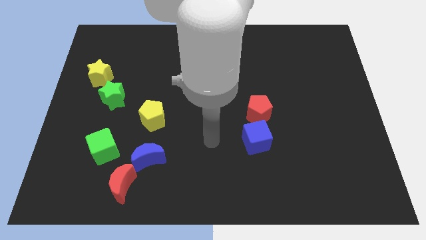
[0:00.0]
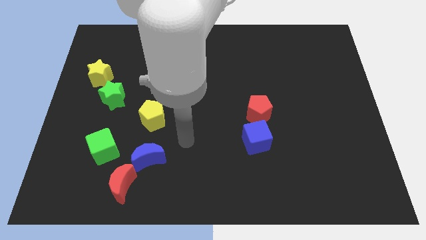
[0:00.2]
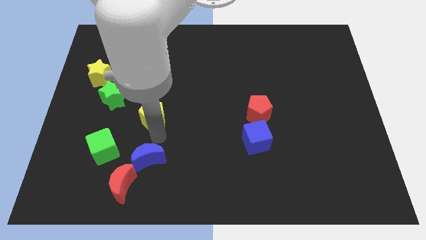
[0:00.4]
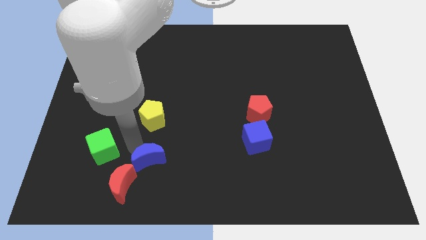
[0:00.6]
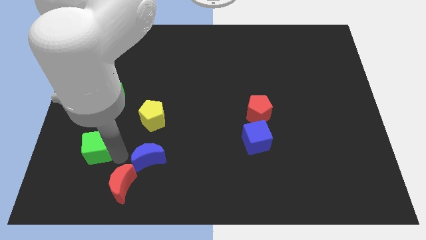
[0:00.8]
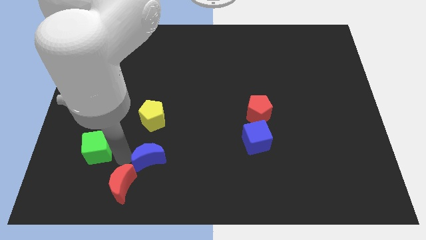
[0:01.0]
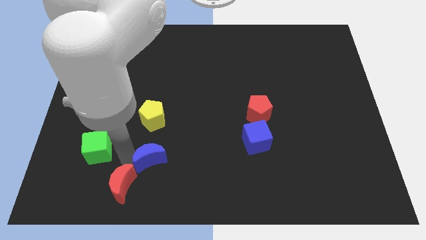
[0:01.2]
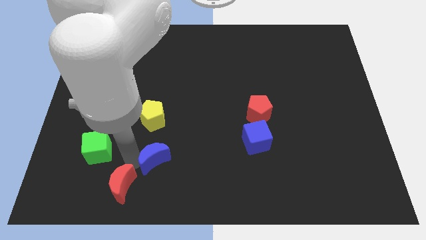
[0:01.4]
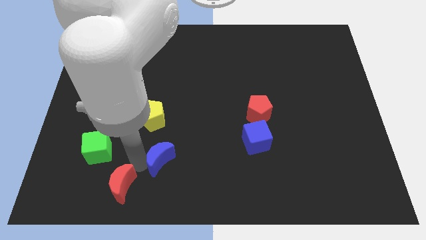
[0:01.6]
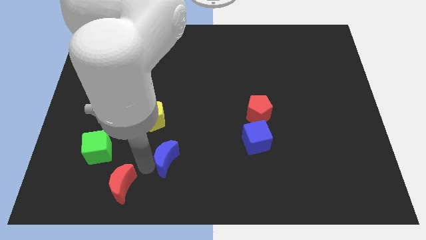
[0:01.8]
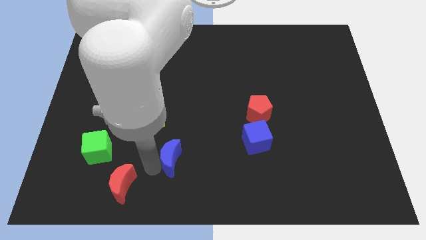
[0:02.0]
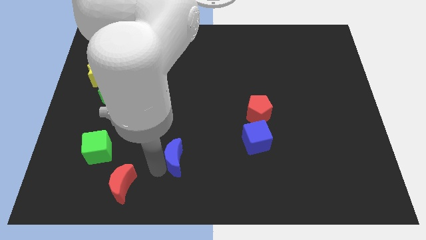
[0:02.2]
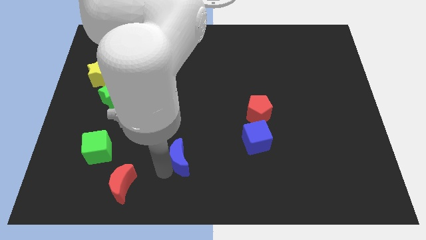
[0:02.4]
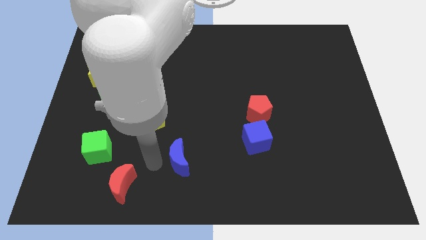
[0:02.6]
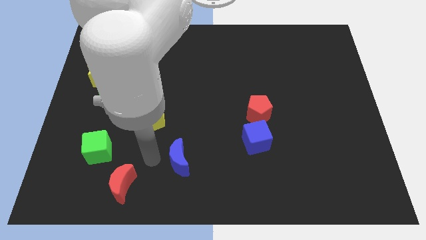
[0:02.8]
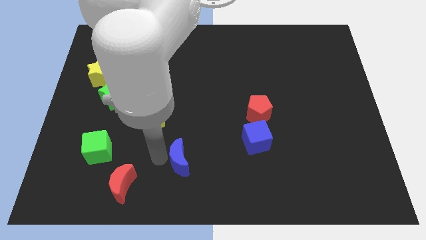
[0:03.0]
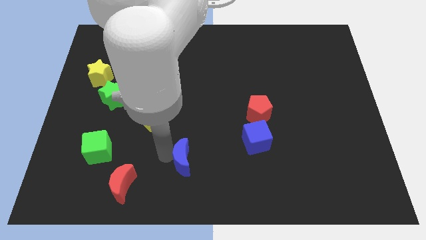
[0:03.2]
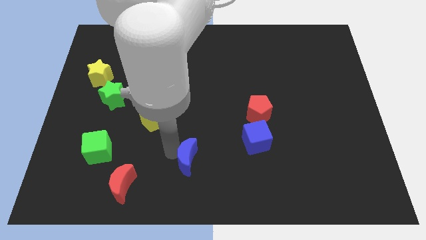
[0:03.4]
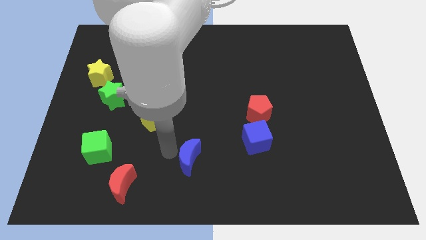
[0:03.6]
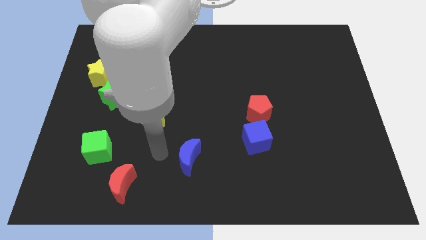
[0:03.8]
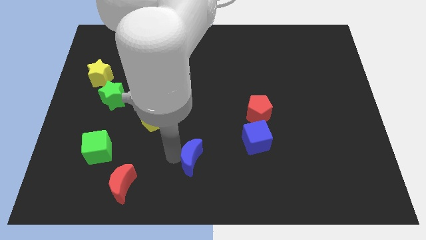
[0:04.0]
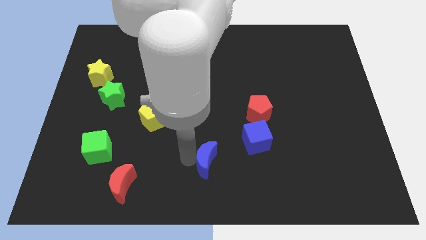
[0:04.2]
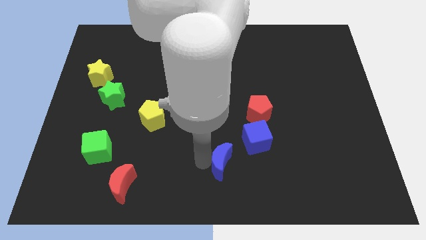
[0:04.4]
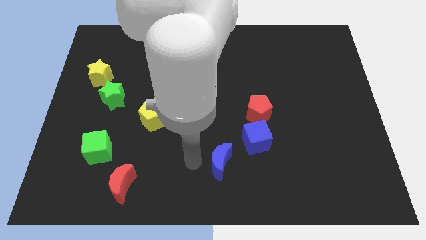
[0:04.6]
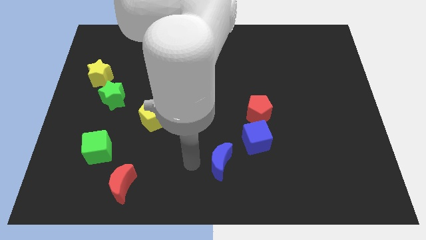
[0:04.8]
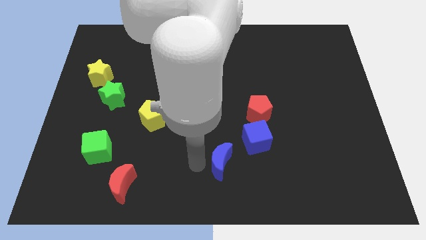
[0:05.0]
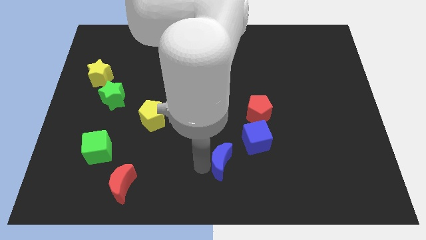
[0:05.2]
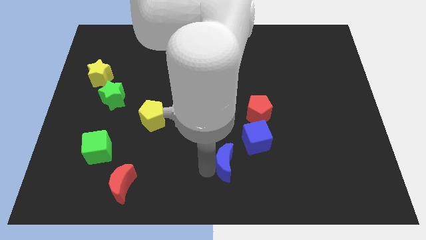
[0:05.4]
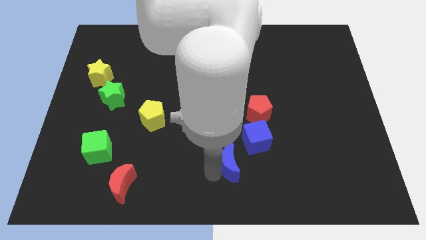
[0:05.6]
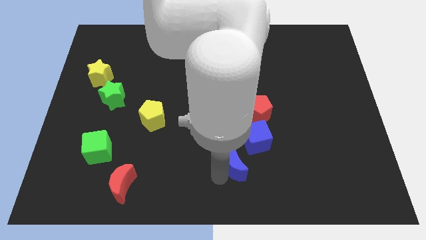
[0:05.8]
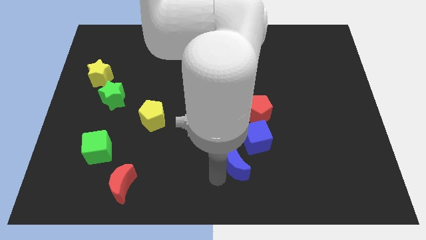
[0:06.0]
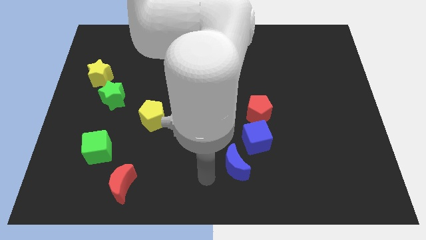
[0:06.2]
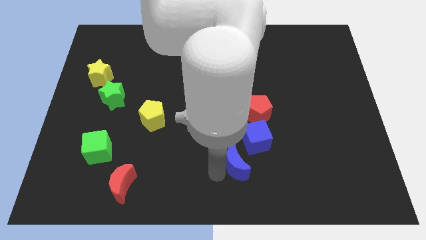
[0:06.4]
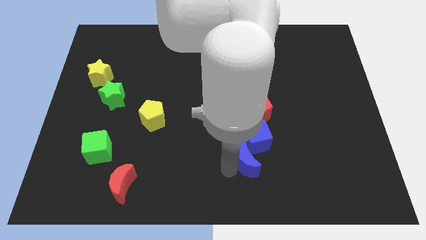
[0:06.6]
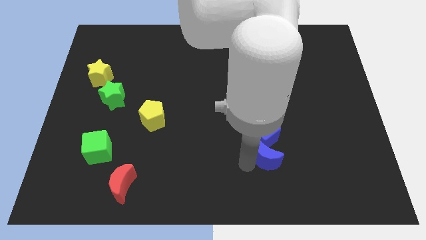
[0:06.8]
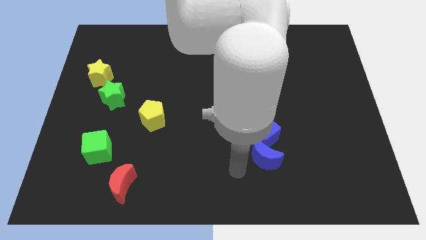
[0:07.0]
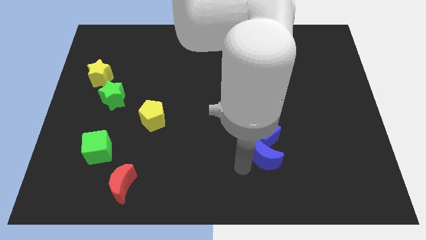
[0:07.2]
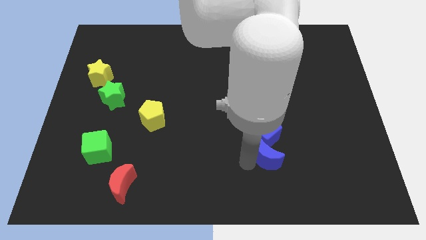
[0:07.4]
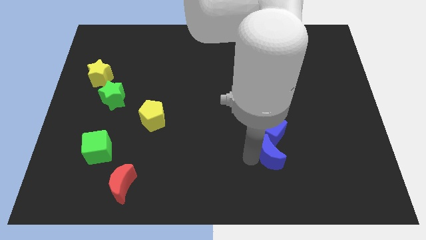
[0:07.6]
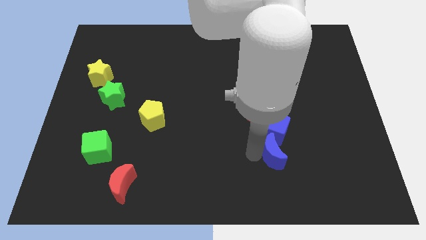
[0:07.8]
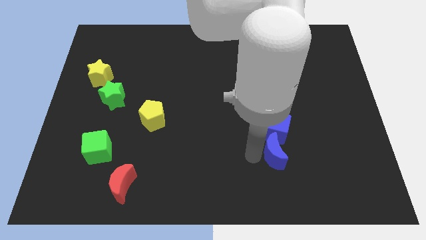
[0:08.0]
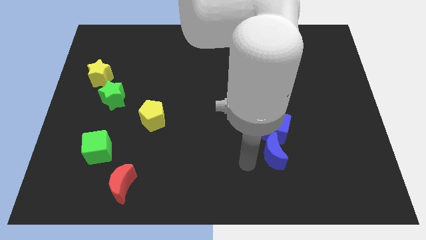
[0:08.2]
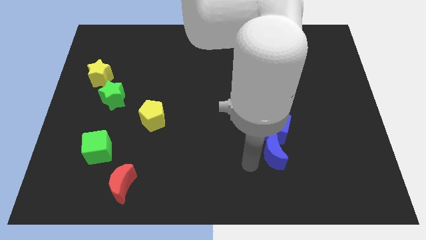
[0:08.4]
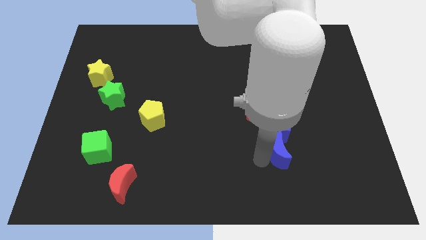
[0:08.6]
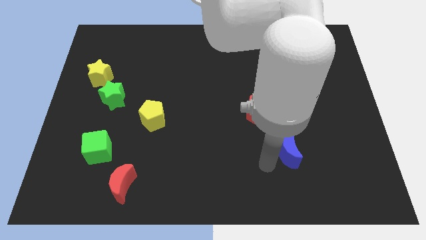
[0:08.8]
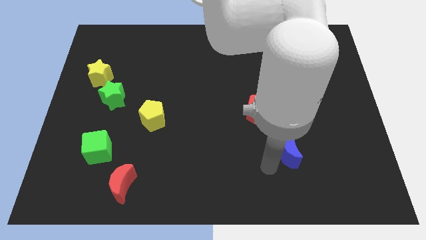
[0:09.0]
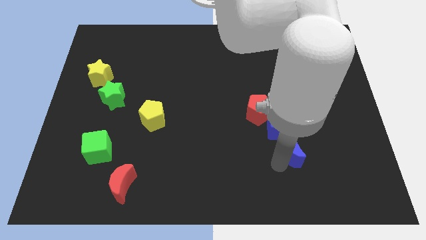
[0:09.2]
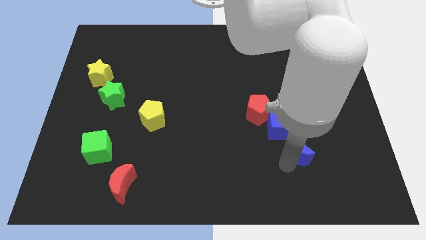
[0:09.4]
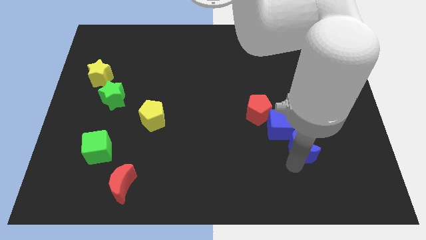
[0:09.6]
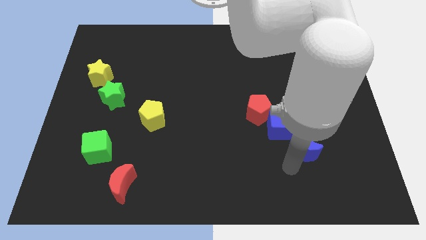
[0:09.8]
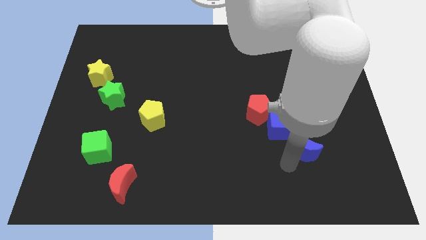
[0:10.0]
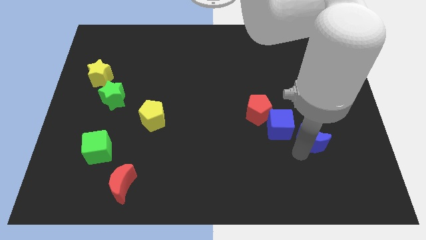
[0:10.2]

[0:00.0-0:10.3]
put the blue moon right of the blue cube

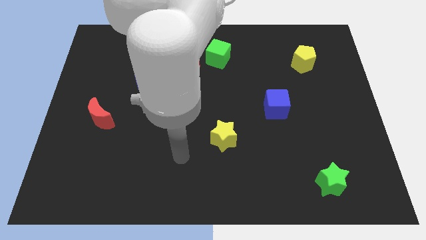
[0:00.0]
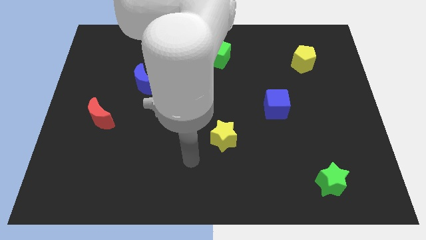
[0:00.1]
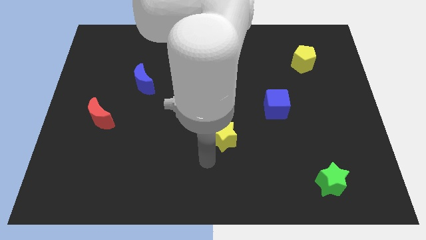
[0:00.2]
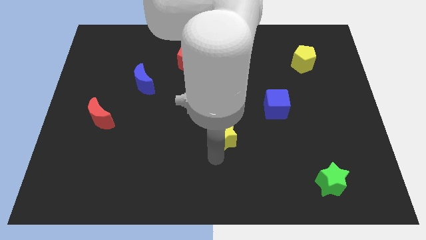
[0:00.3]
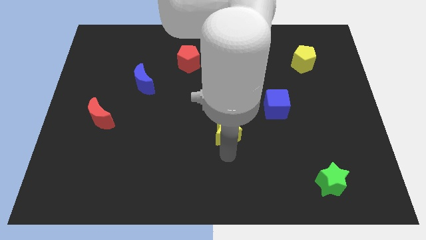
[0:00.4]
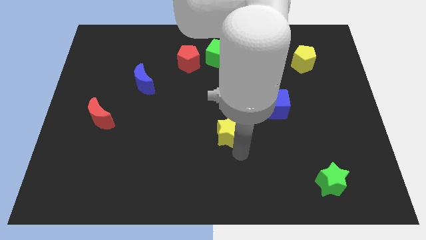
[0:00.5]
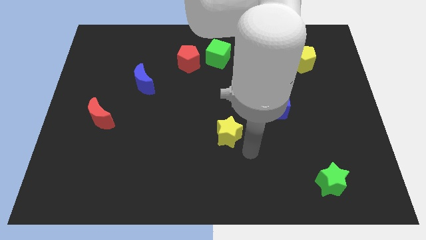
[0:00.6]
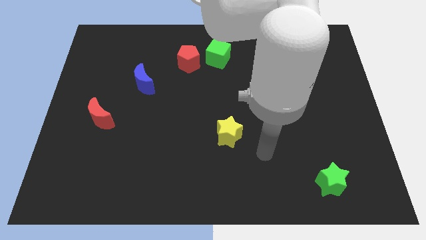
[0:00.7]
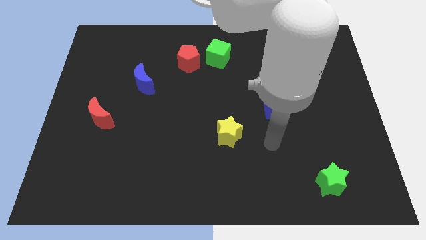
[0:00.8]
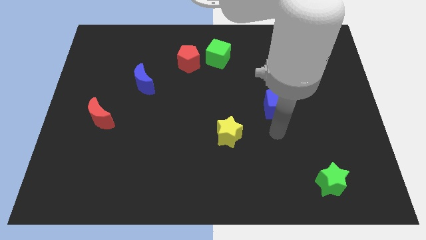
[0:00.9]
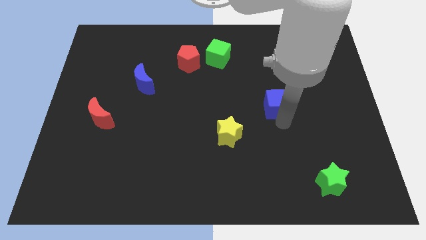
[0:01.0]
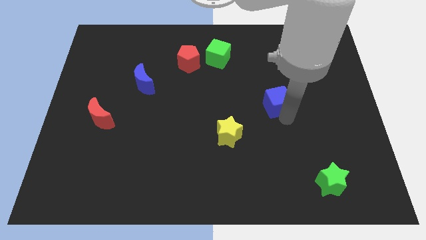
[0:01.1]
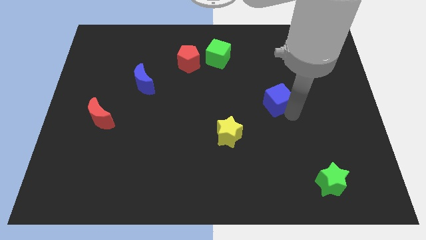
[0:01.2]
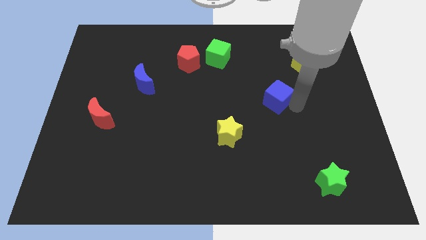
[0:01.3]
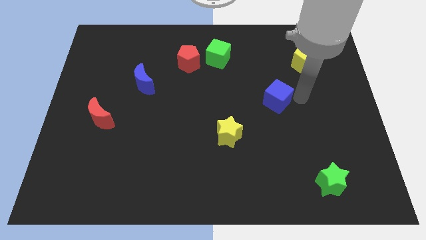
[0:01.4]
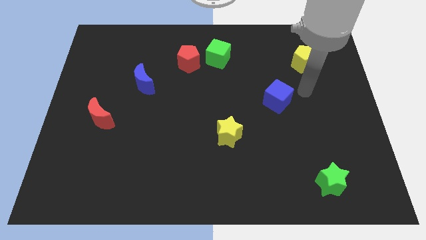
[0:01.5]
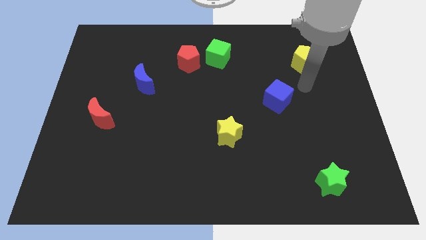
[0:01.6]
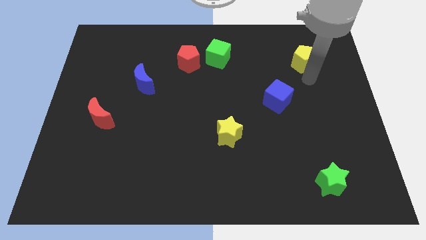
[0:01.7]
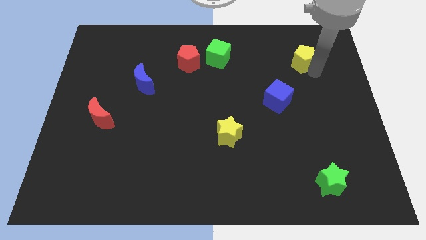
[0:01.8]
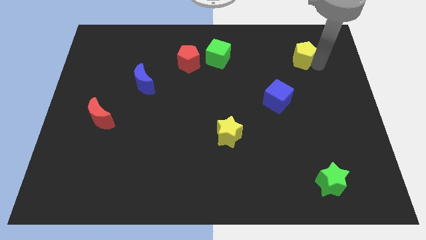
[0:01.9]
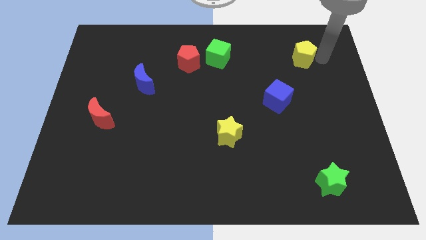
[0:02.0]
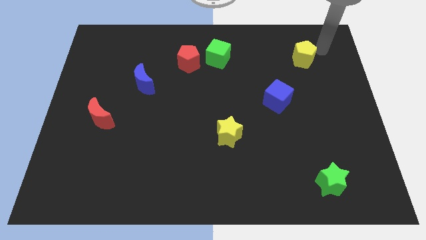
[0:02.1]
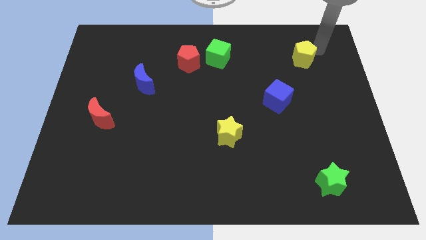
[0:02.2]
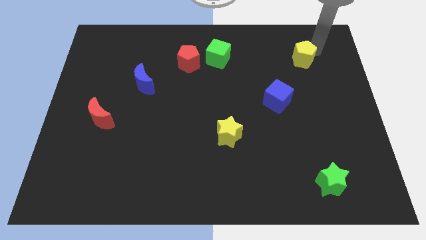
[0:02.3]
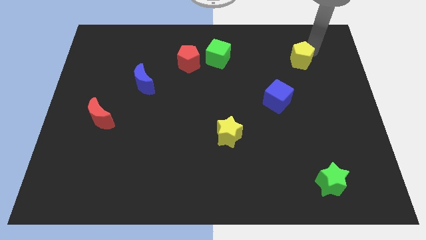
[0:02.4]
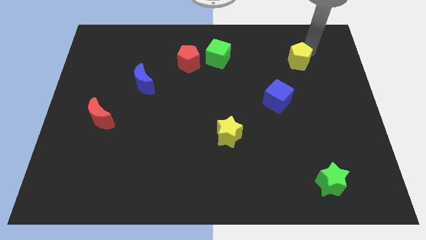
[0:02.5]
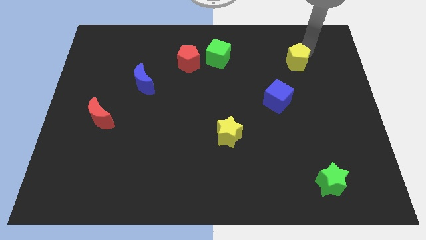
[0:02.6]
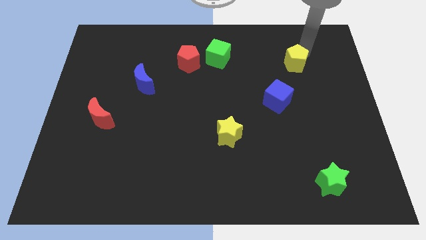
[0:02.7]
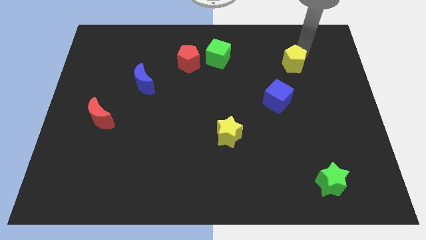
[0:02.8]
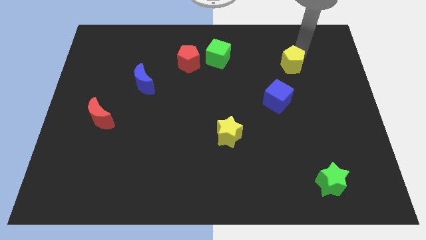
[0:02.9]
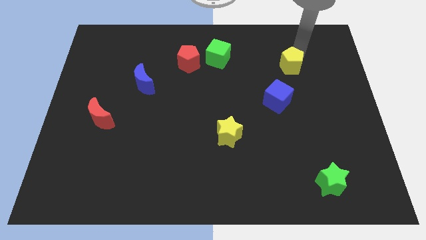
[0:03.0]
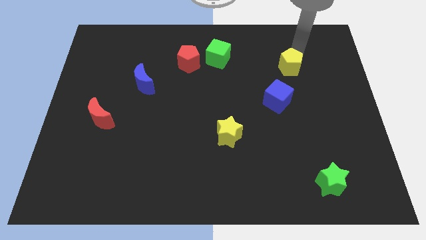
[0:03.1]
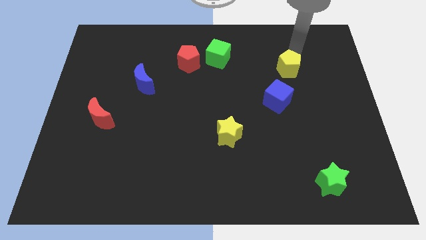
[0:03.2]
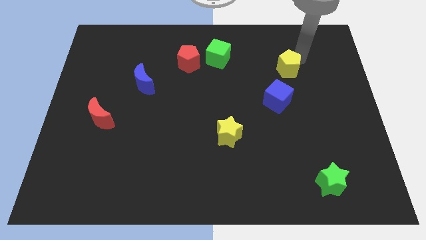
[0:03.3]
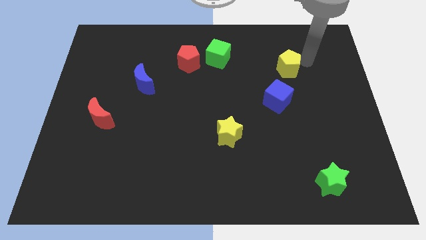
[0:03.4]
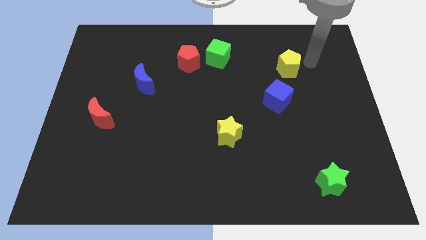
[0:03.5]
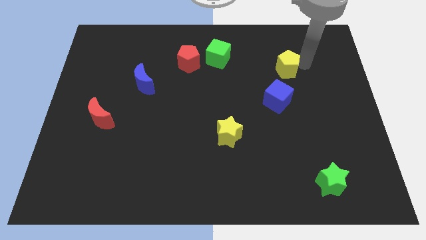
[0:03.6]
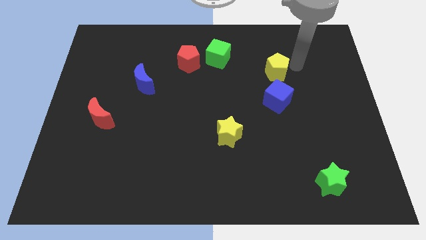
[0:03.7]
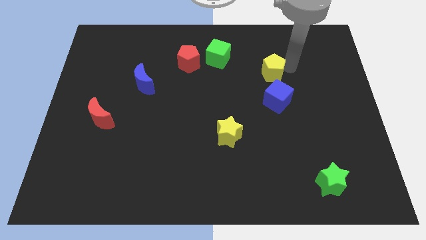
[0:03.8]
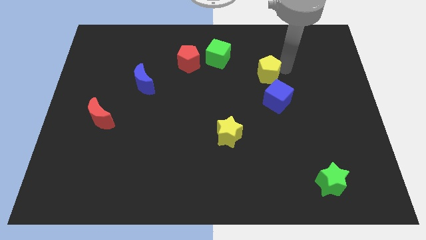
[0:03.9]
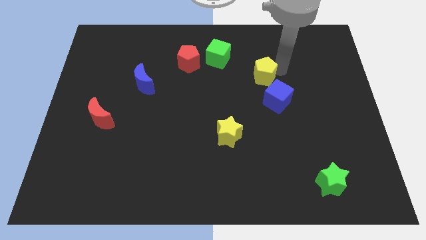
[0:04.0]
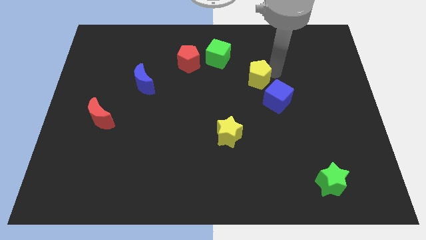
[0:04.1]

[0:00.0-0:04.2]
slide the yellow pentagon diagonally down and to the right of the green cube
